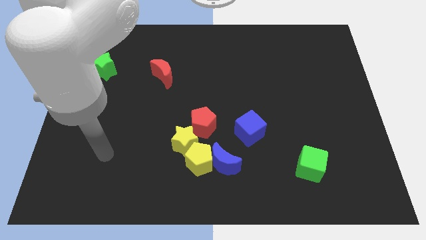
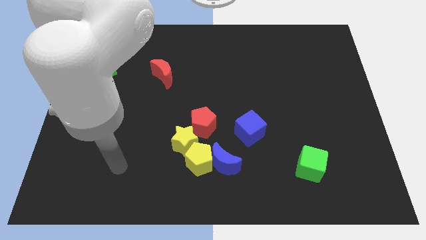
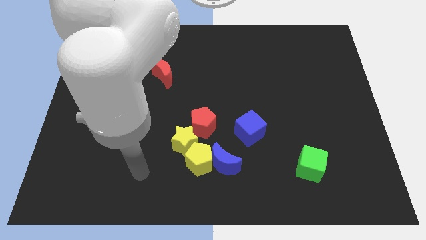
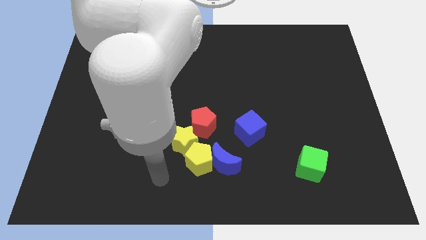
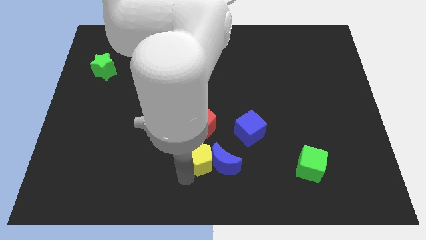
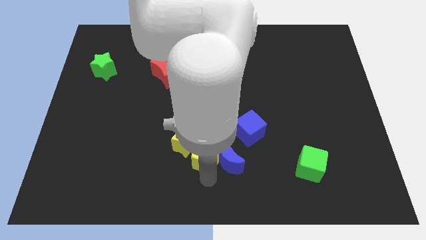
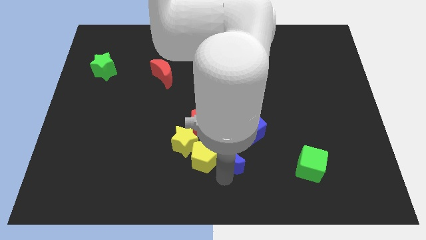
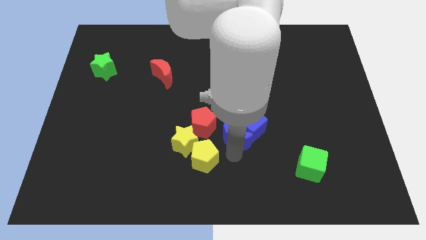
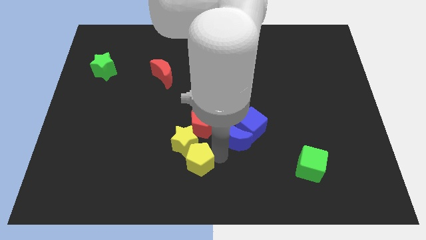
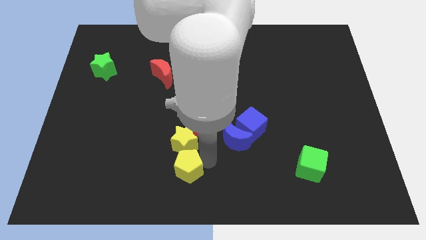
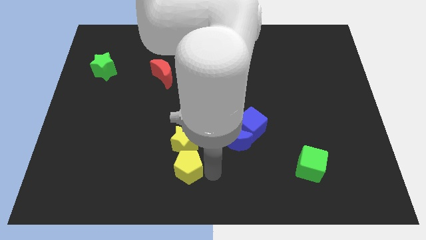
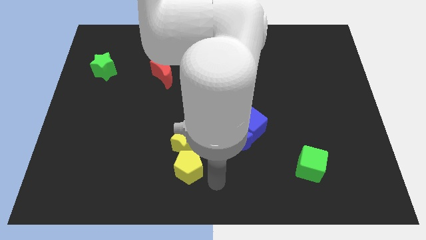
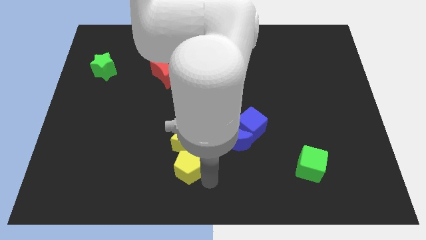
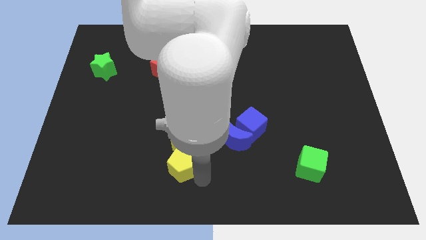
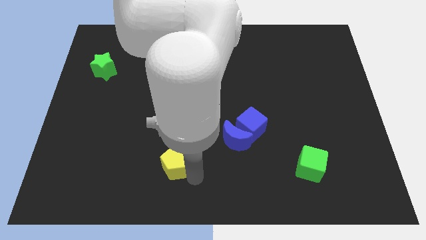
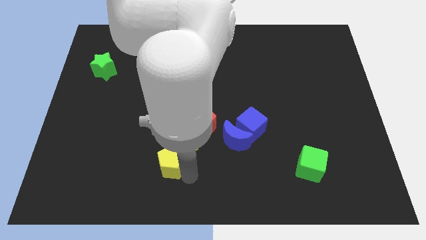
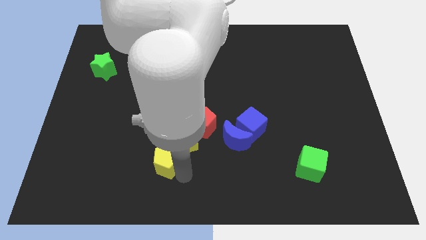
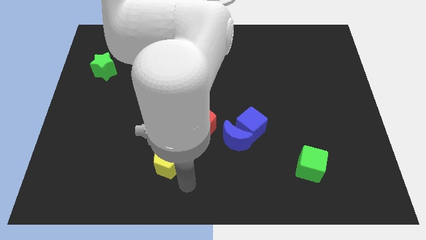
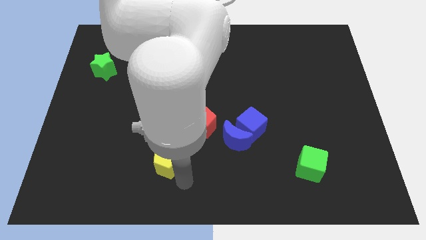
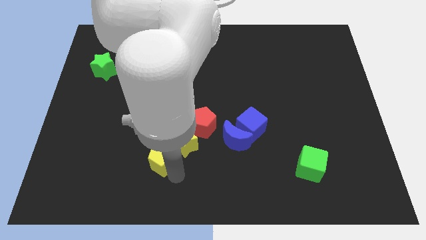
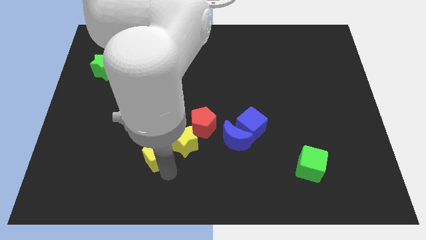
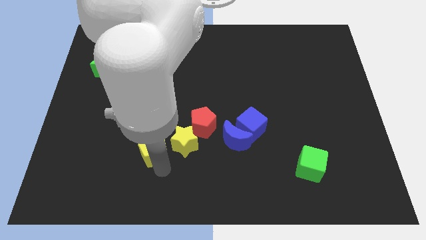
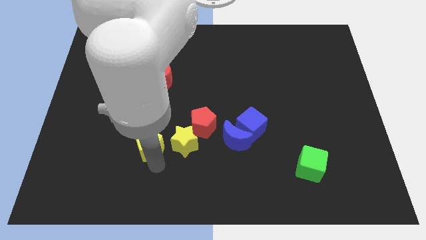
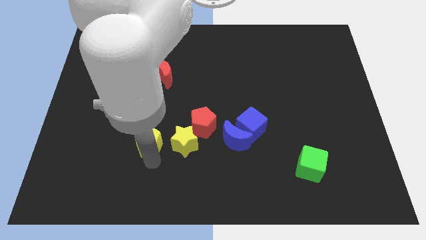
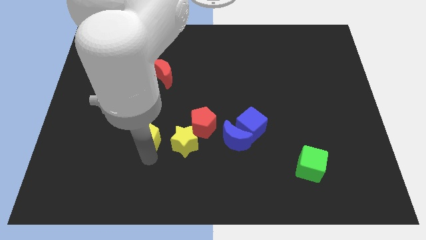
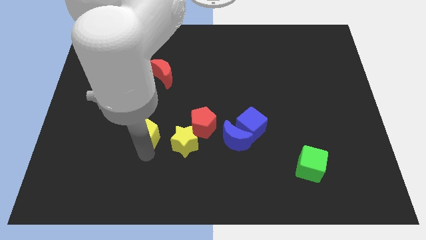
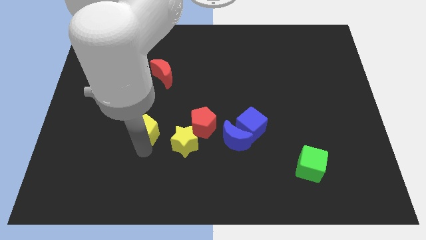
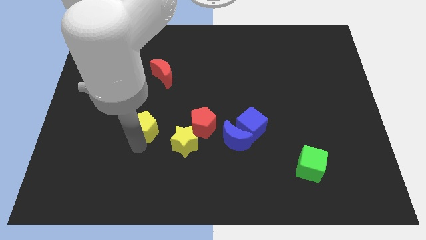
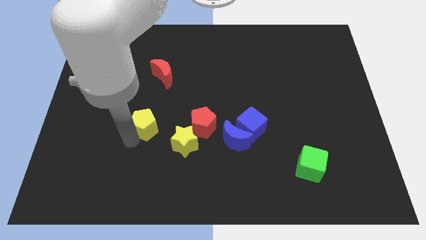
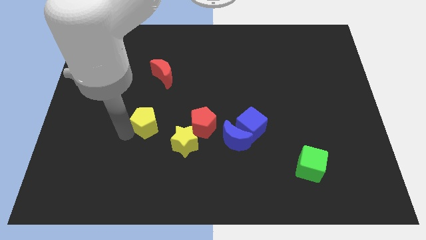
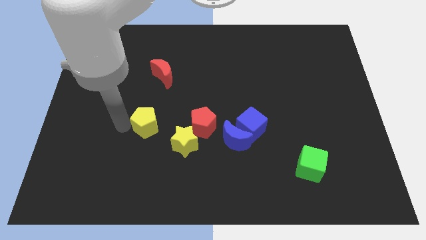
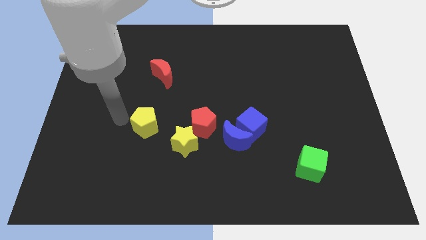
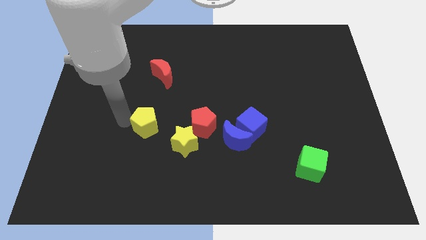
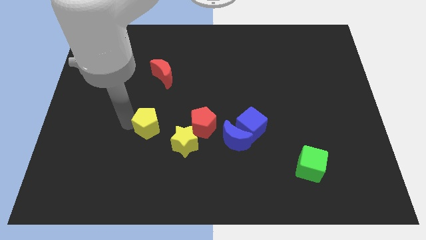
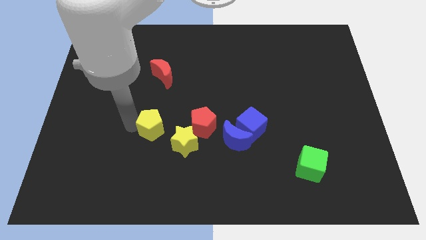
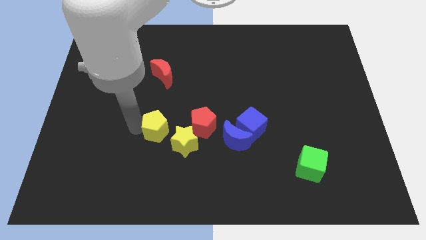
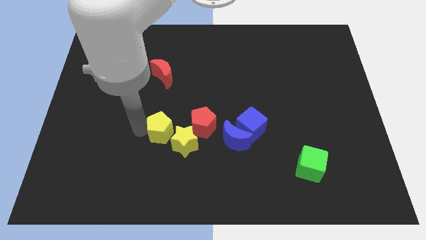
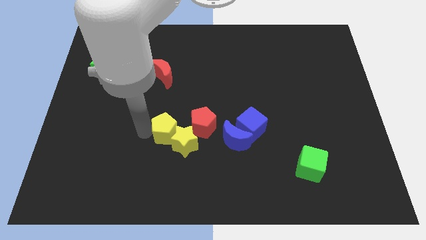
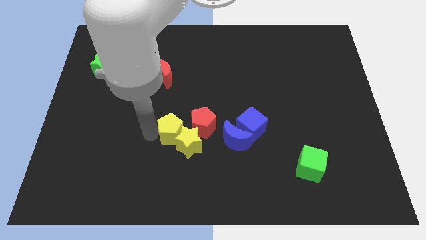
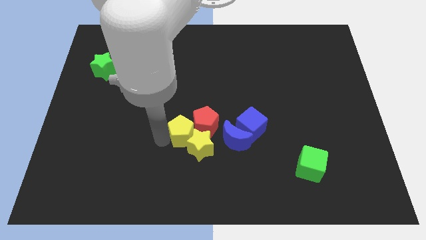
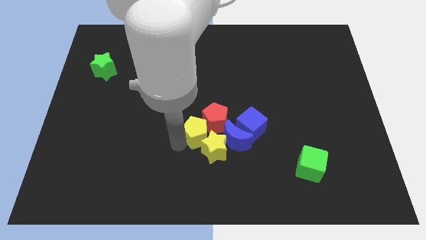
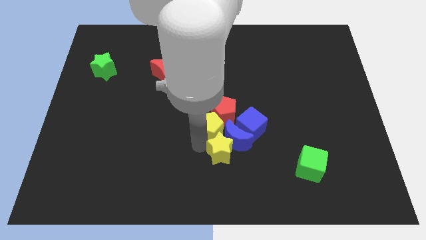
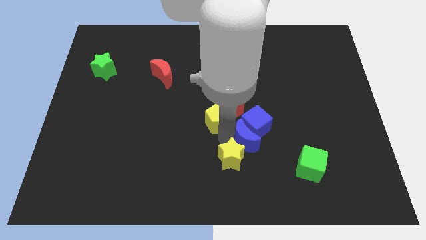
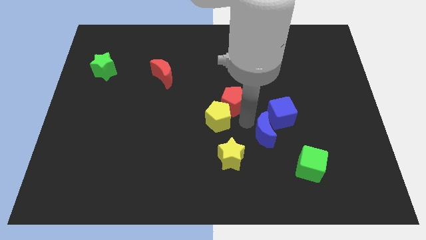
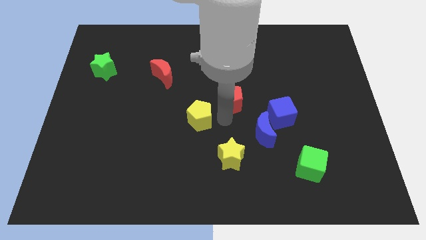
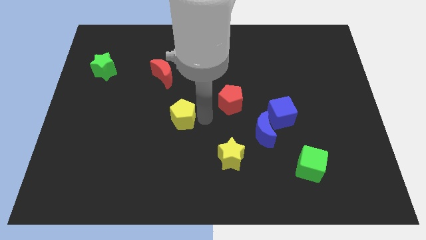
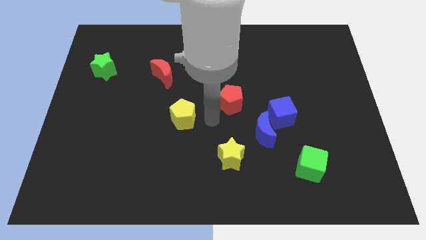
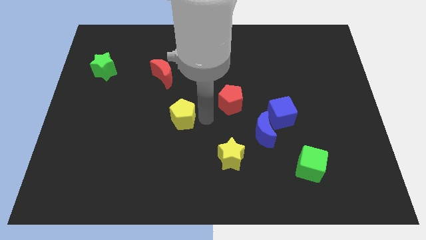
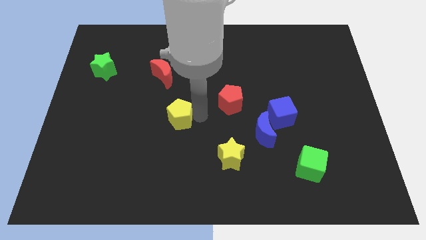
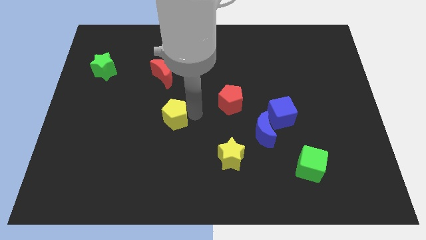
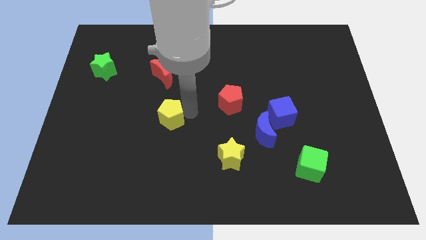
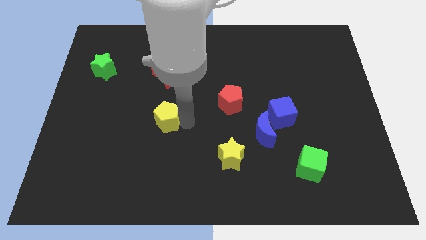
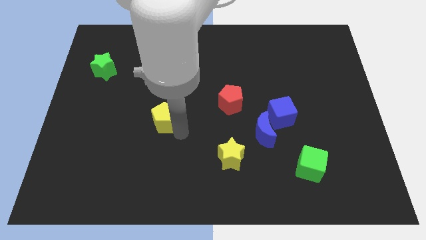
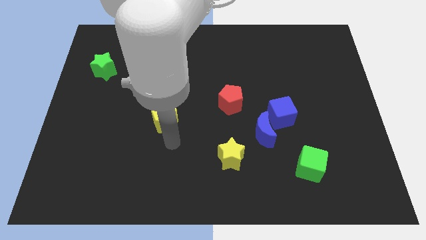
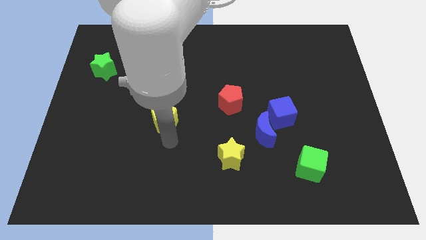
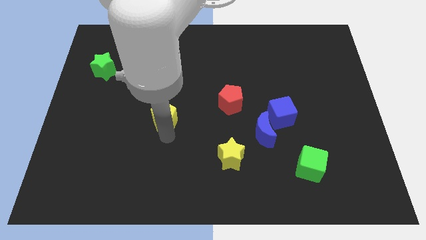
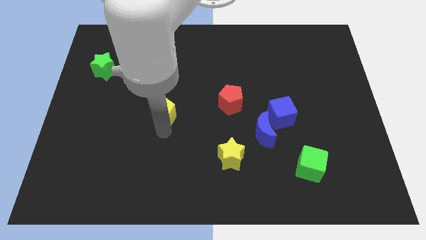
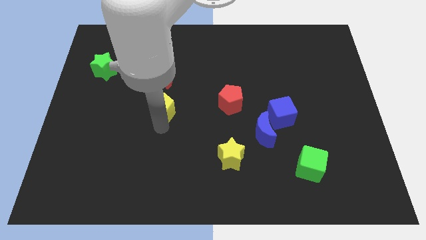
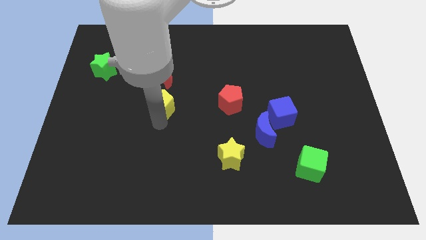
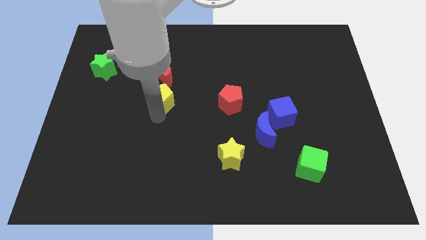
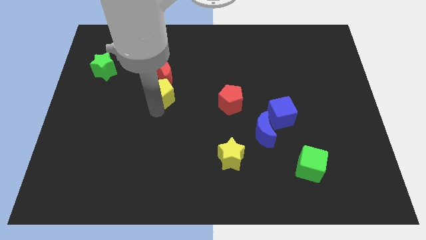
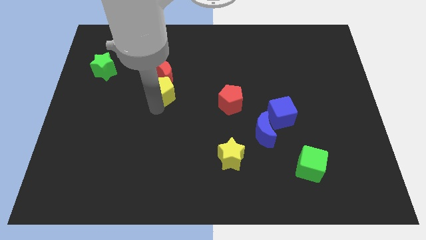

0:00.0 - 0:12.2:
move the yellow pentagon towards the red moon

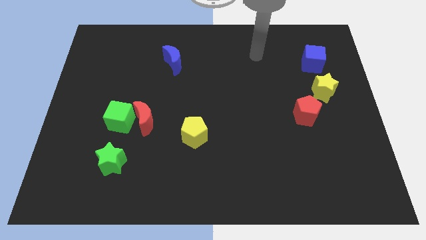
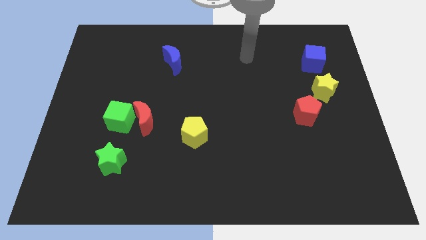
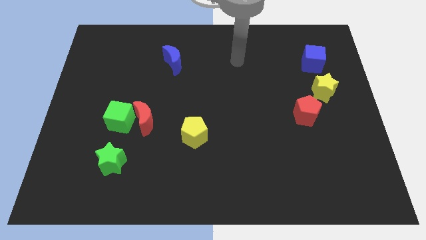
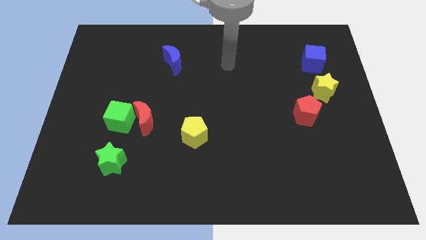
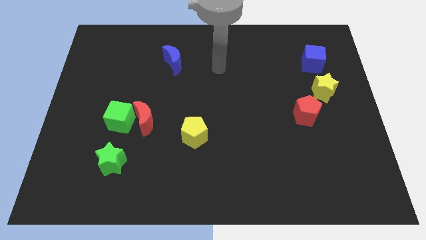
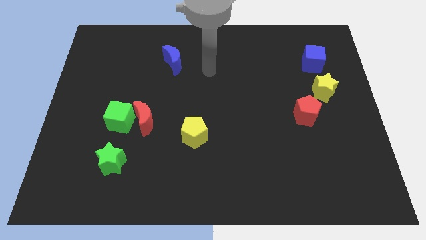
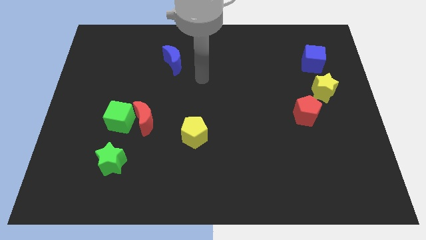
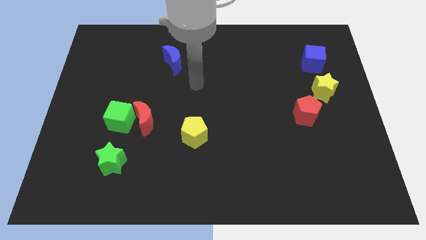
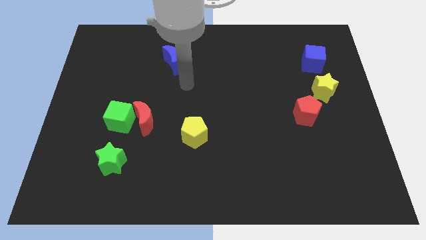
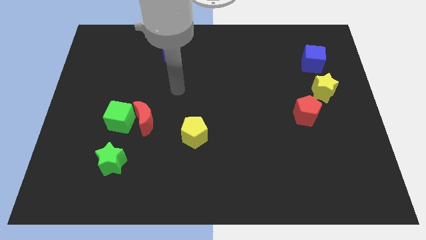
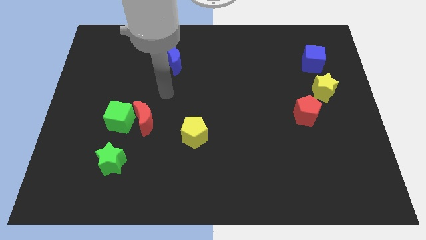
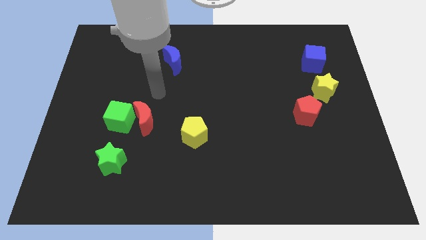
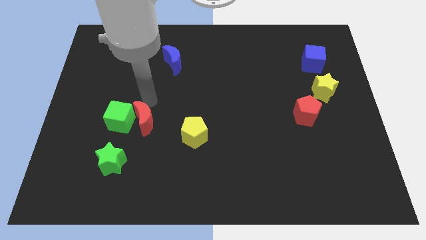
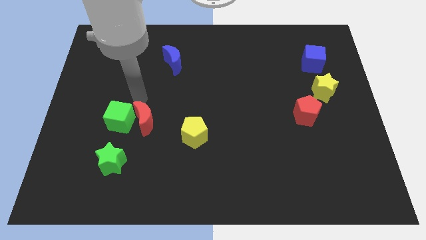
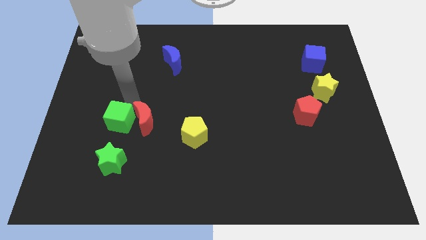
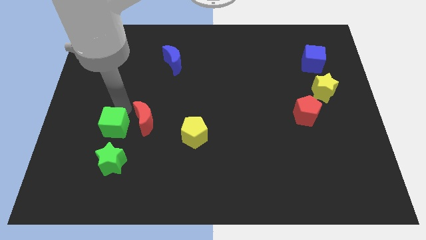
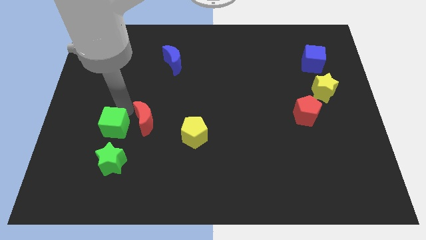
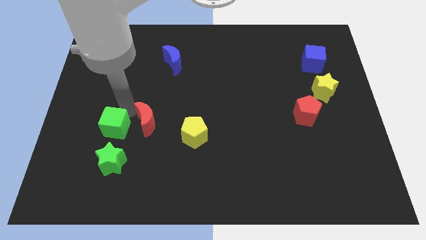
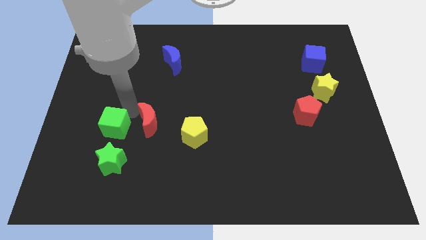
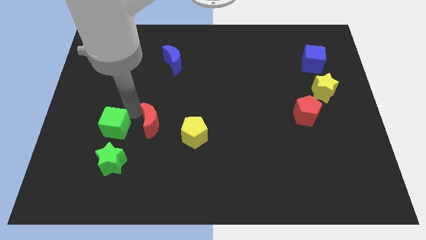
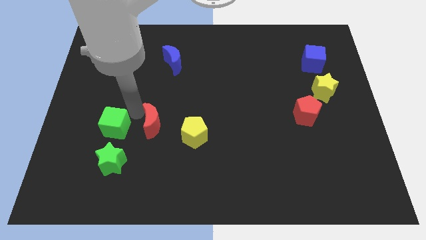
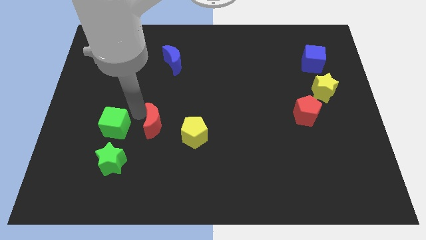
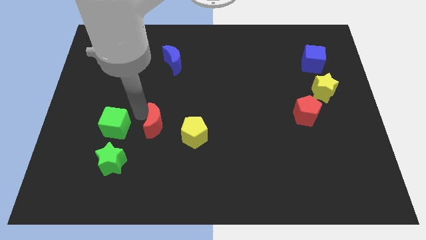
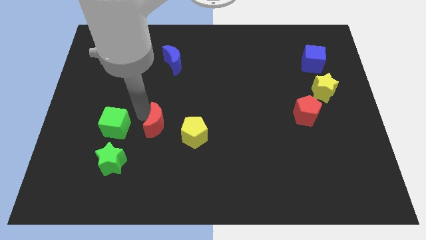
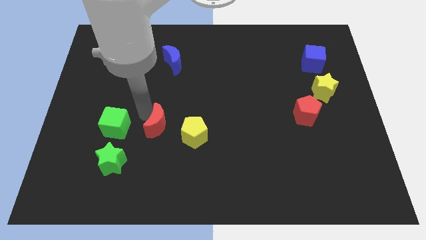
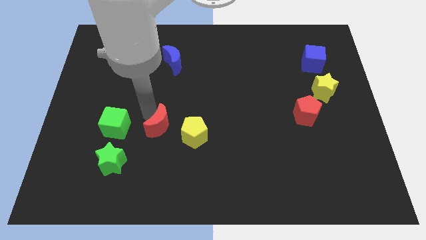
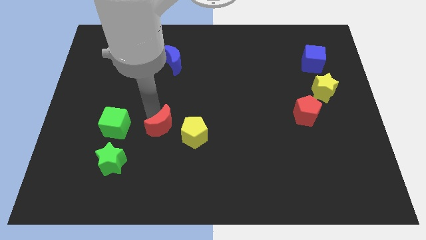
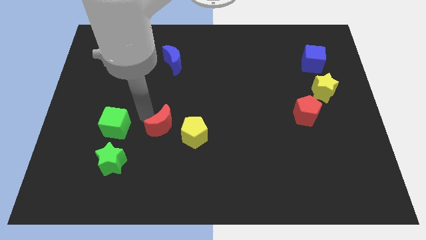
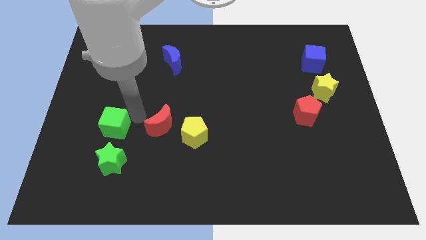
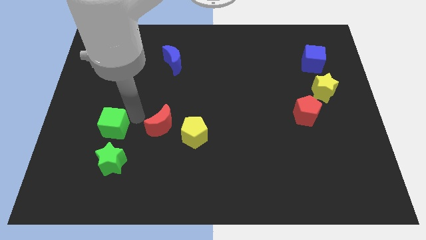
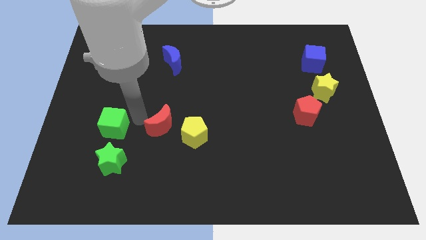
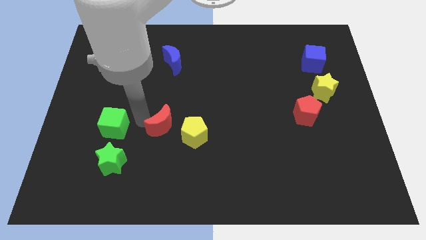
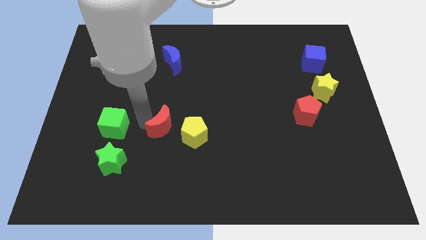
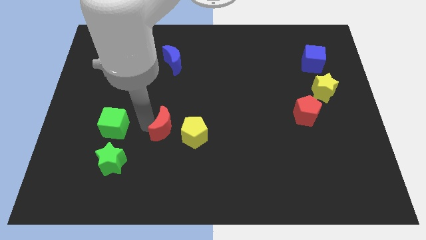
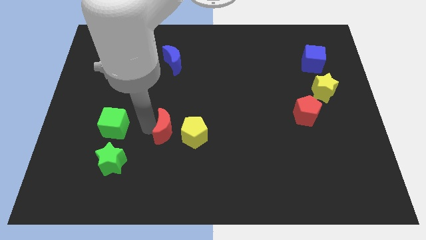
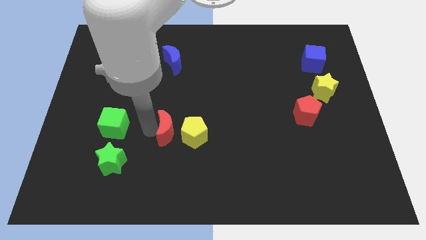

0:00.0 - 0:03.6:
move the red moon close to the yellow pentagon
